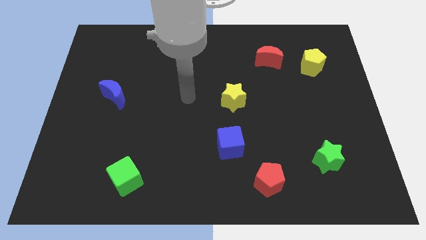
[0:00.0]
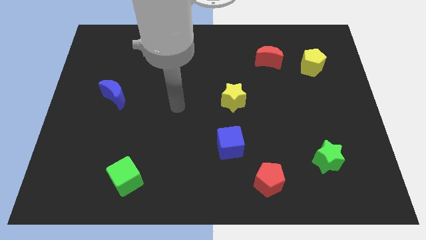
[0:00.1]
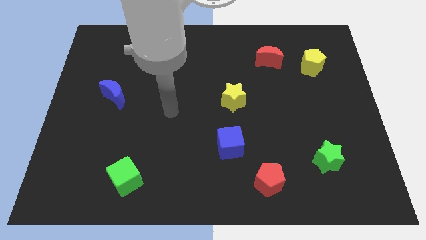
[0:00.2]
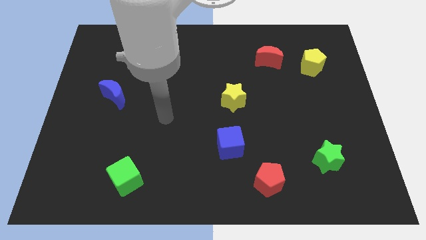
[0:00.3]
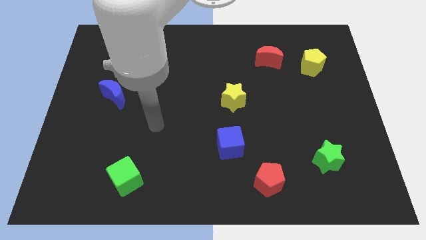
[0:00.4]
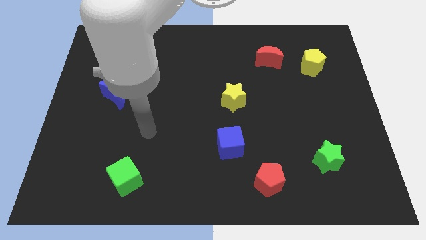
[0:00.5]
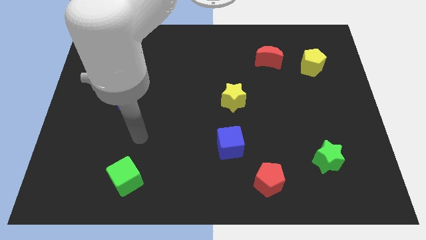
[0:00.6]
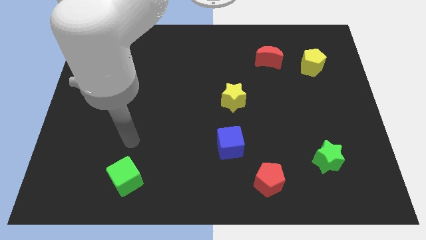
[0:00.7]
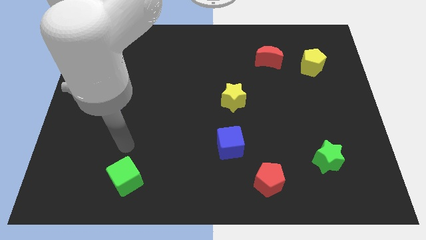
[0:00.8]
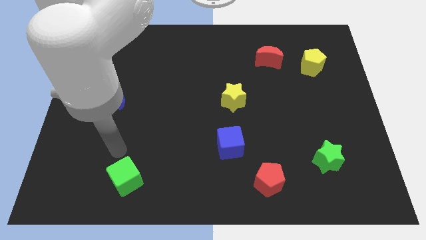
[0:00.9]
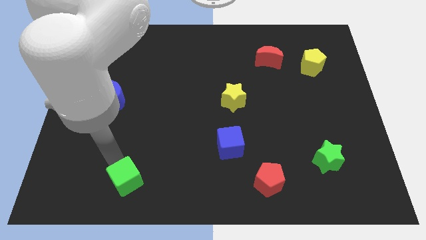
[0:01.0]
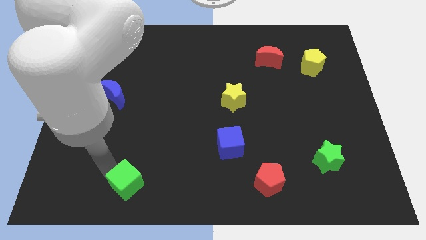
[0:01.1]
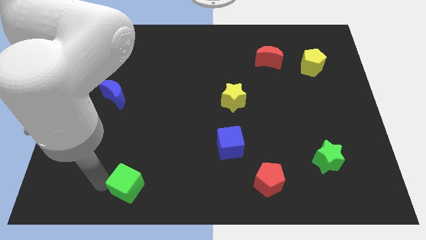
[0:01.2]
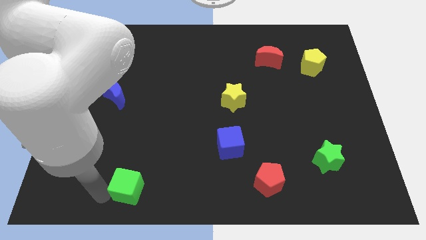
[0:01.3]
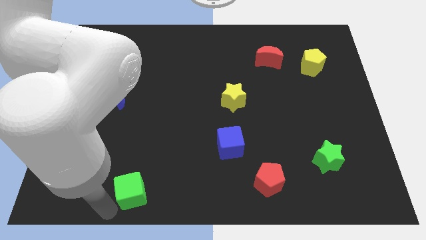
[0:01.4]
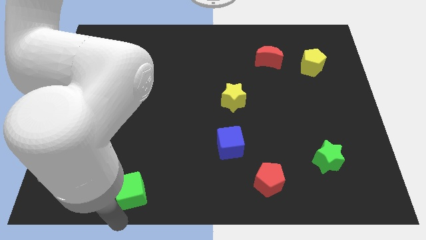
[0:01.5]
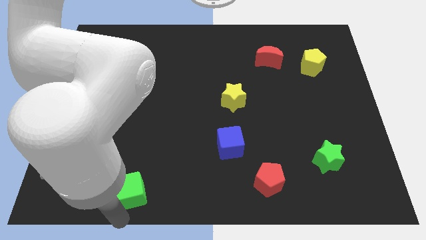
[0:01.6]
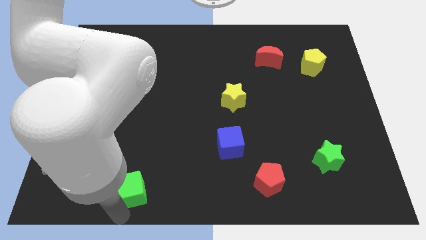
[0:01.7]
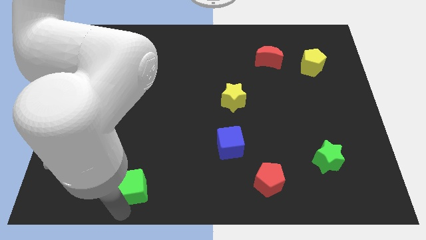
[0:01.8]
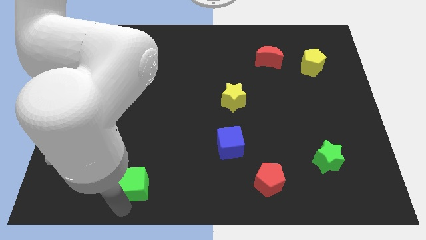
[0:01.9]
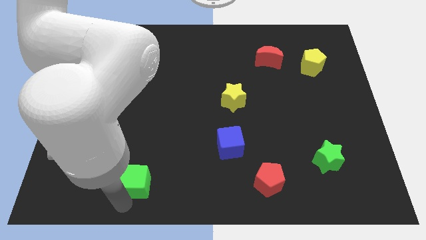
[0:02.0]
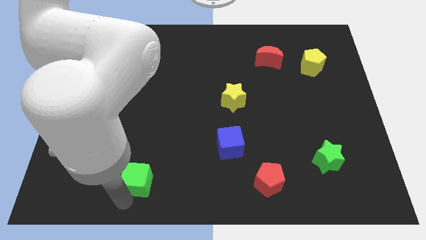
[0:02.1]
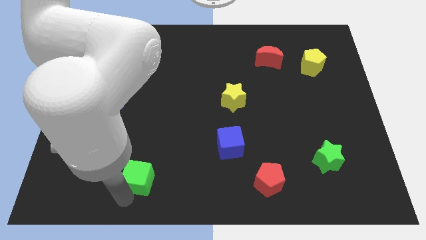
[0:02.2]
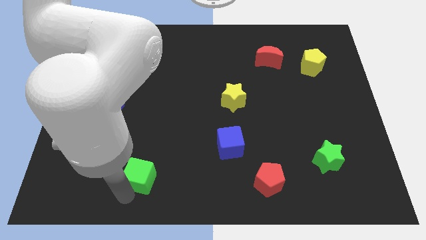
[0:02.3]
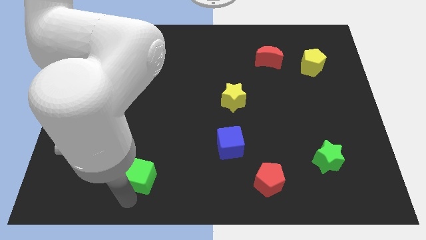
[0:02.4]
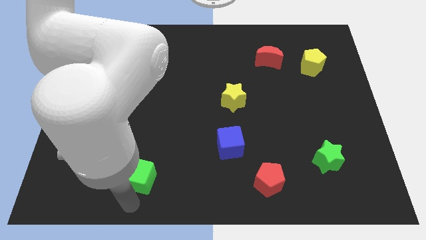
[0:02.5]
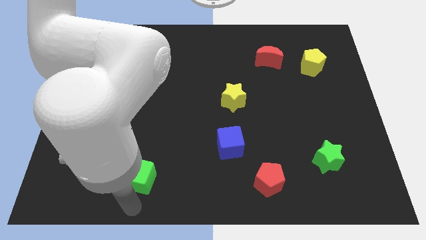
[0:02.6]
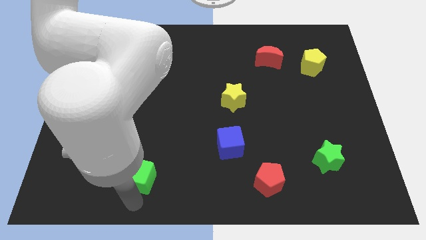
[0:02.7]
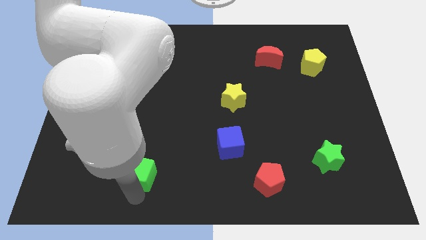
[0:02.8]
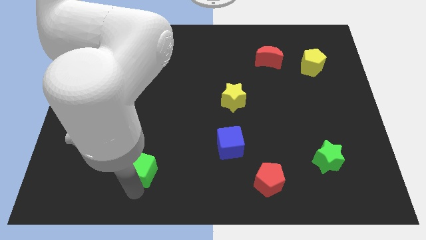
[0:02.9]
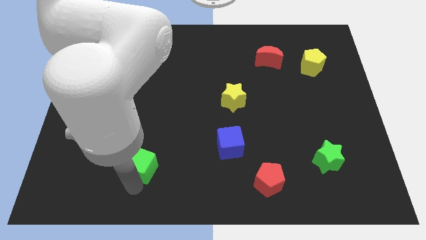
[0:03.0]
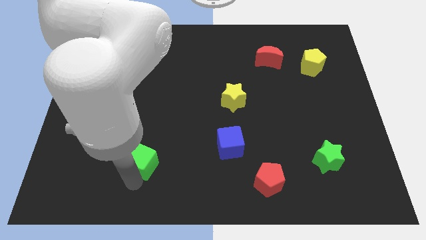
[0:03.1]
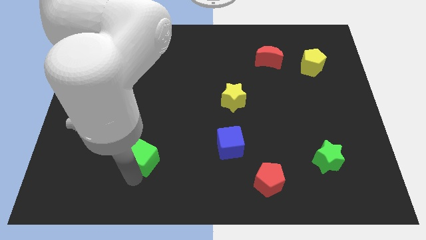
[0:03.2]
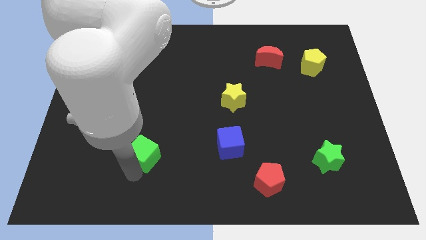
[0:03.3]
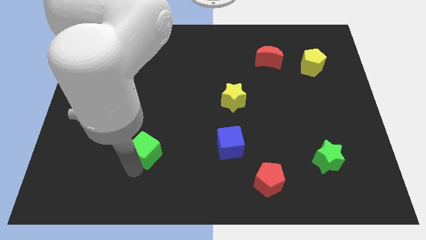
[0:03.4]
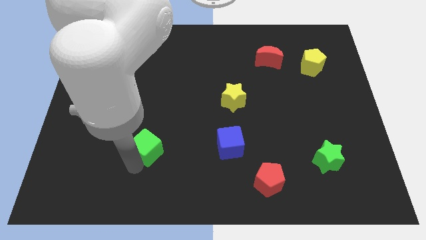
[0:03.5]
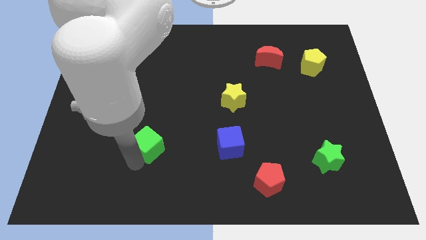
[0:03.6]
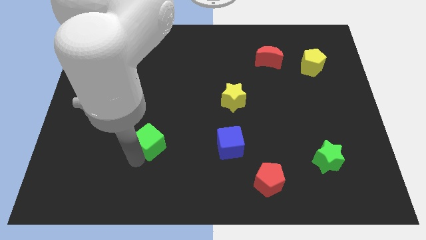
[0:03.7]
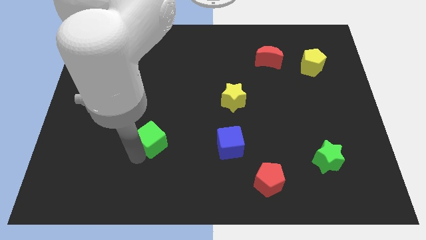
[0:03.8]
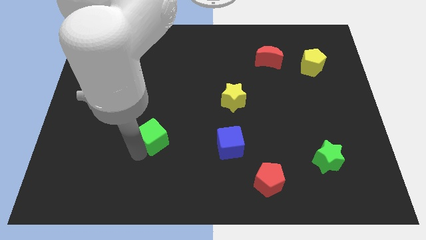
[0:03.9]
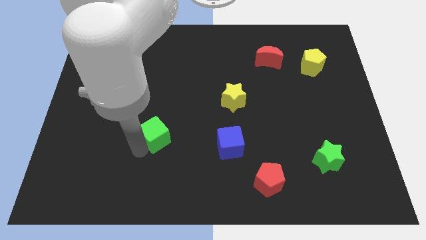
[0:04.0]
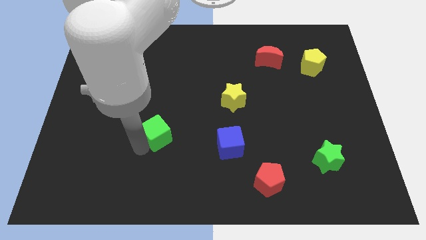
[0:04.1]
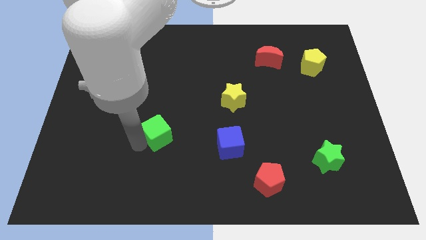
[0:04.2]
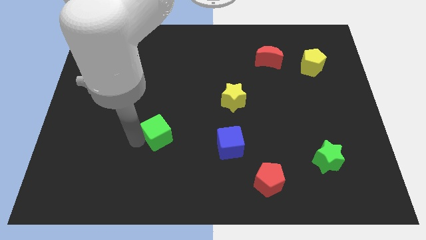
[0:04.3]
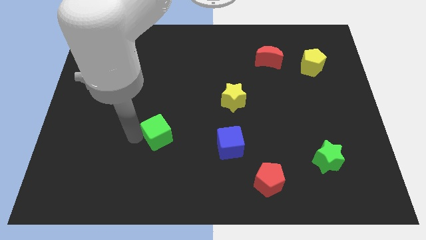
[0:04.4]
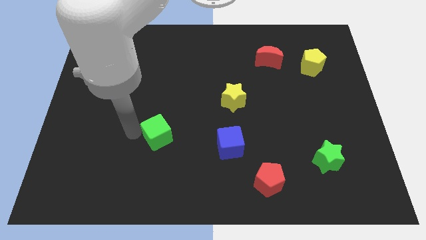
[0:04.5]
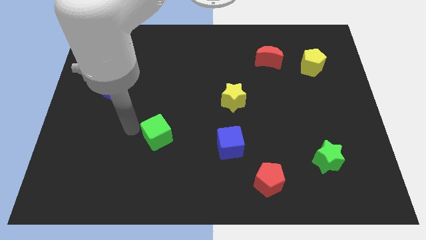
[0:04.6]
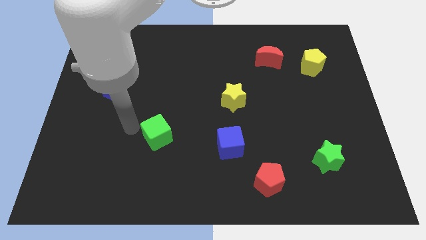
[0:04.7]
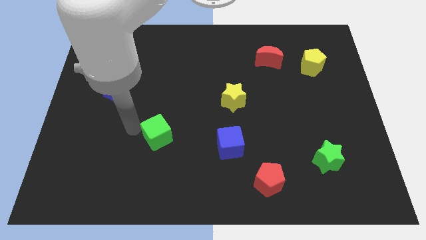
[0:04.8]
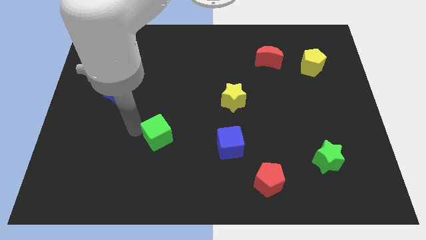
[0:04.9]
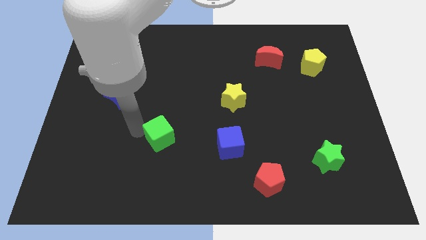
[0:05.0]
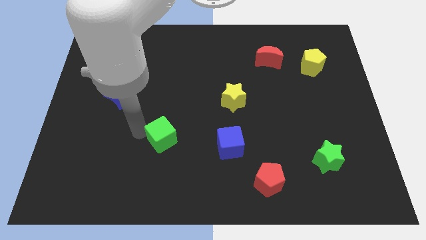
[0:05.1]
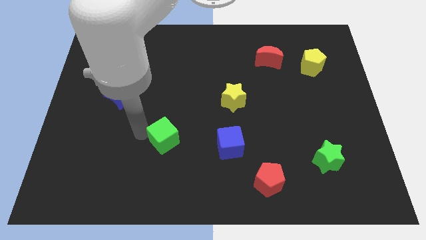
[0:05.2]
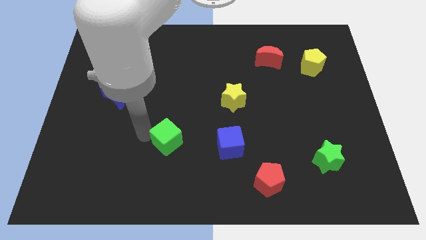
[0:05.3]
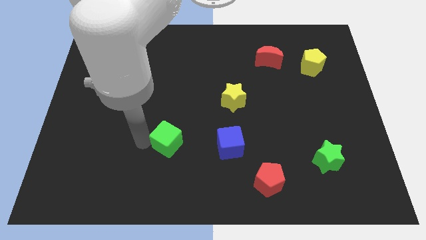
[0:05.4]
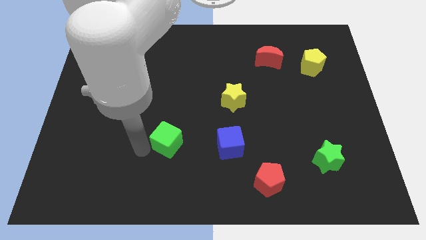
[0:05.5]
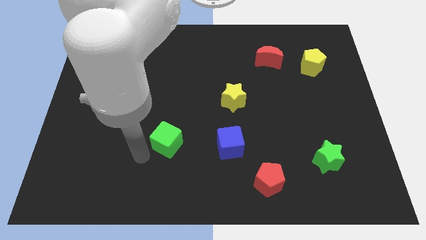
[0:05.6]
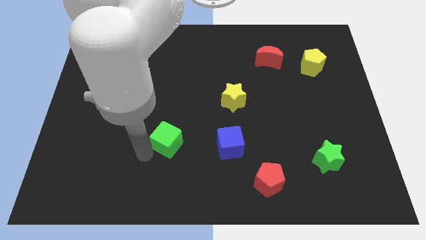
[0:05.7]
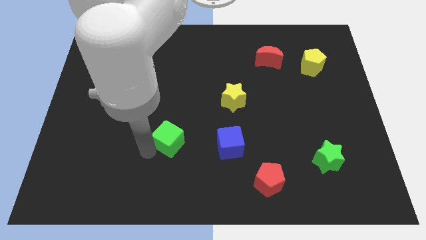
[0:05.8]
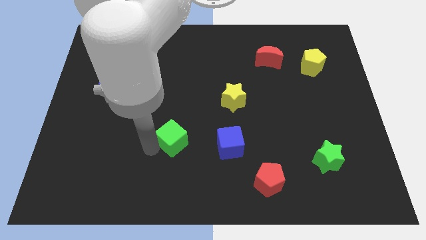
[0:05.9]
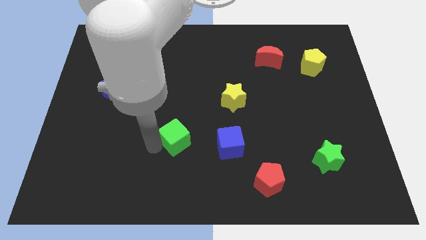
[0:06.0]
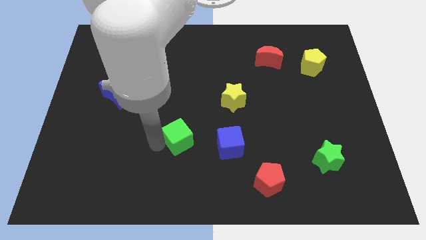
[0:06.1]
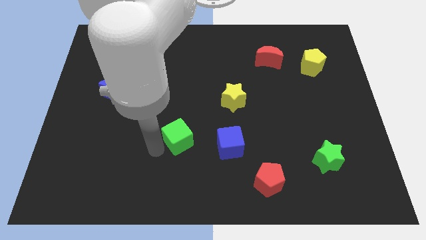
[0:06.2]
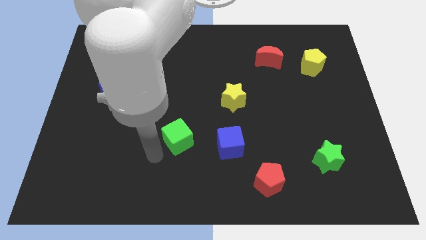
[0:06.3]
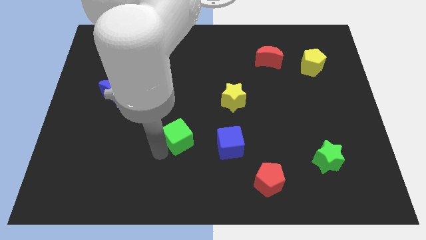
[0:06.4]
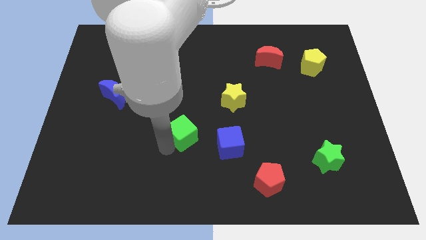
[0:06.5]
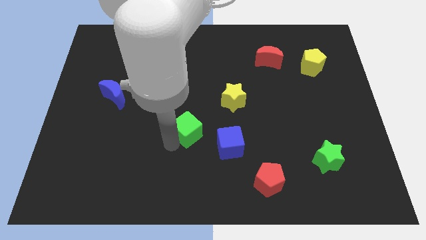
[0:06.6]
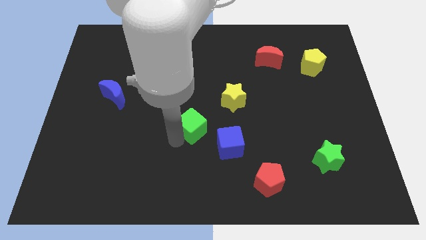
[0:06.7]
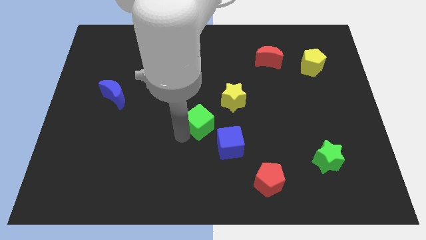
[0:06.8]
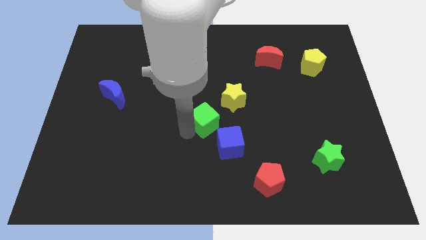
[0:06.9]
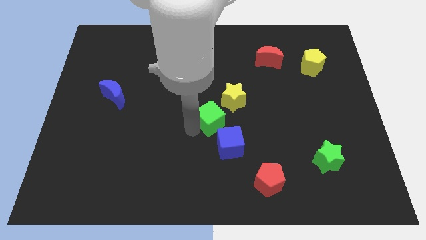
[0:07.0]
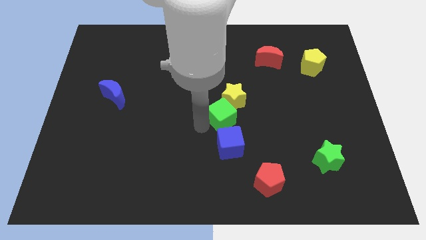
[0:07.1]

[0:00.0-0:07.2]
put the green cube close to the yellow star
